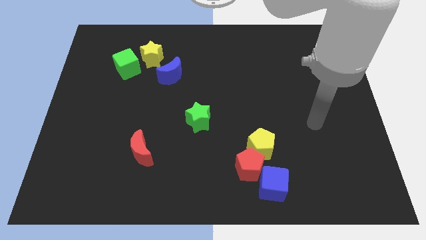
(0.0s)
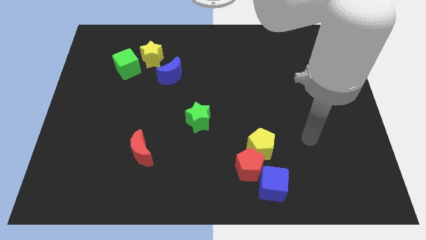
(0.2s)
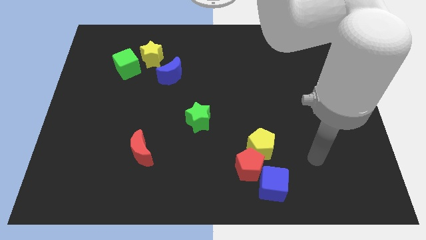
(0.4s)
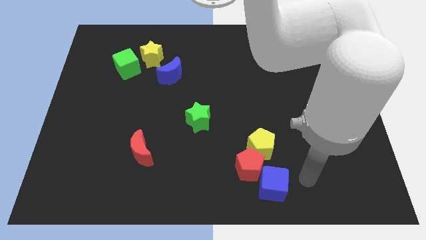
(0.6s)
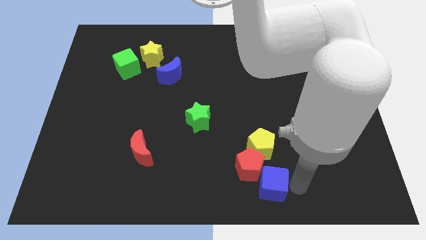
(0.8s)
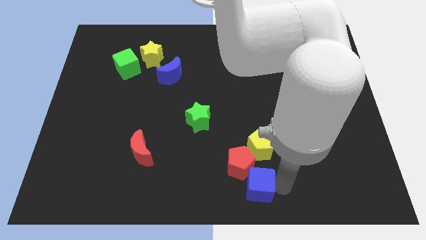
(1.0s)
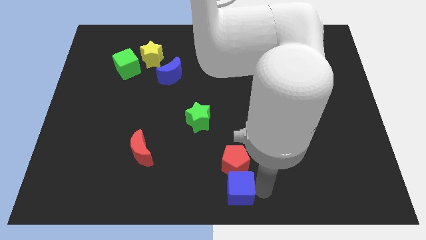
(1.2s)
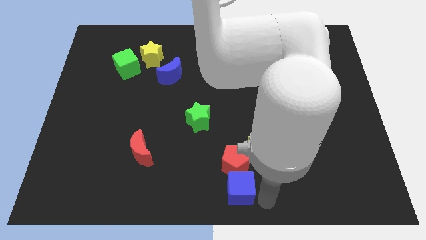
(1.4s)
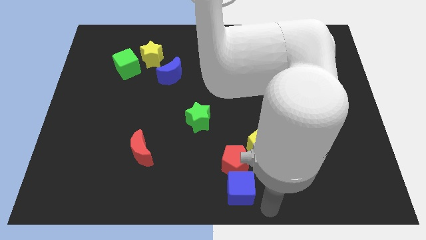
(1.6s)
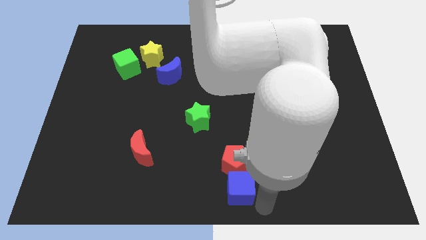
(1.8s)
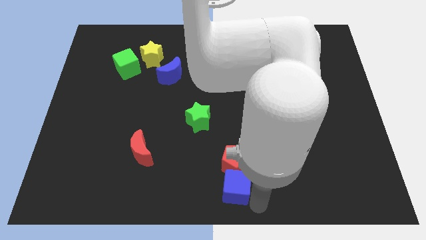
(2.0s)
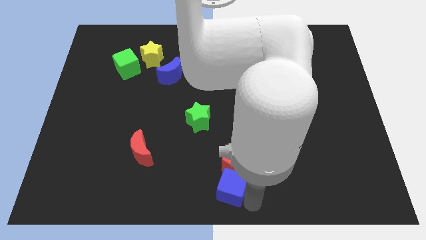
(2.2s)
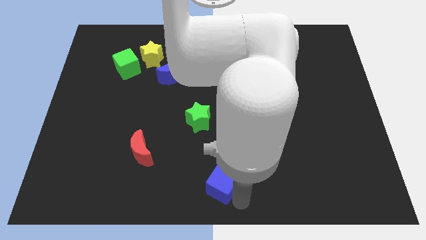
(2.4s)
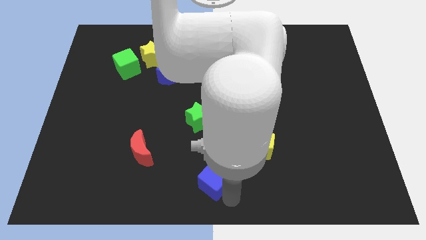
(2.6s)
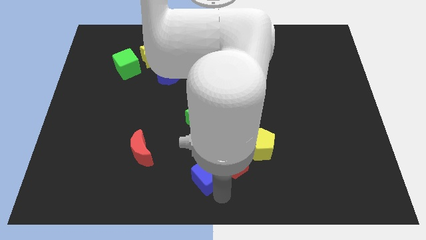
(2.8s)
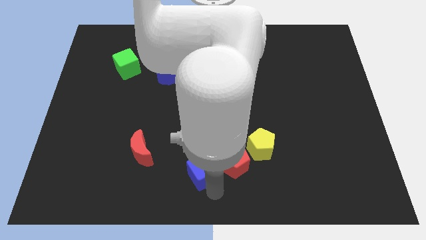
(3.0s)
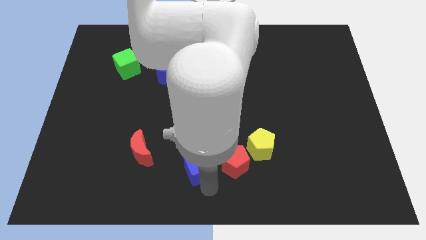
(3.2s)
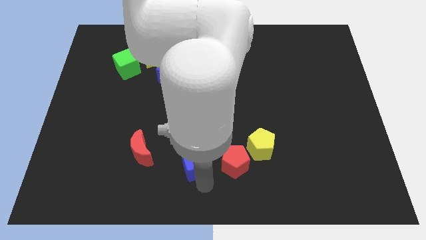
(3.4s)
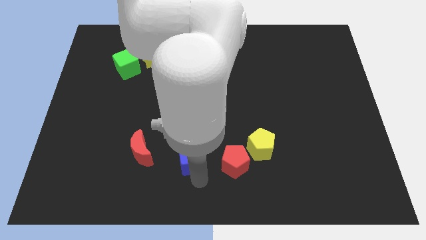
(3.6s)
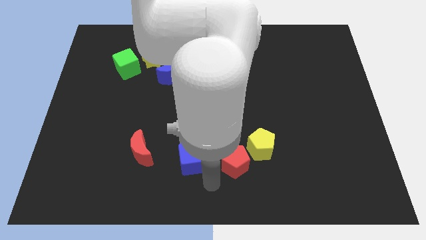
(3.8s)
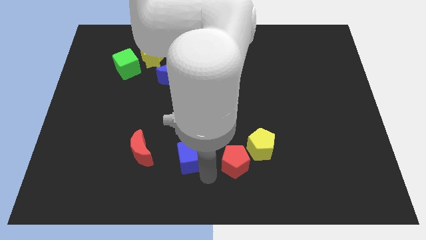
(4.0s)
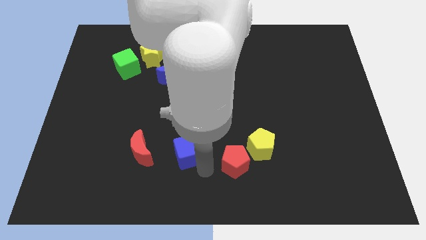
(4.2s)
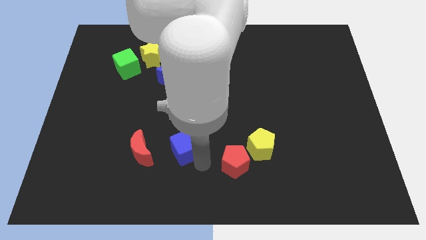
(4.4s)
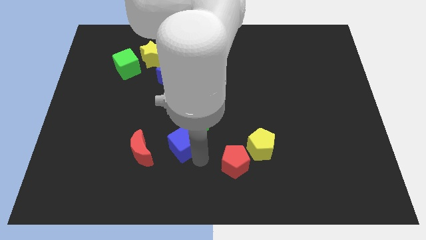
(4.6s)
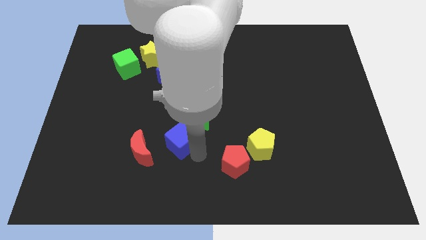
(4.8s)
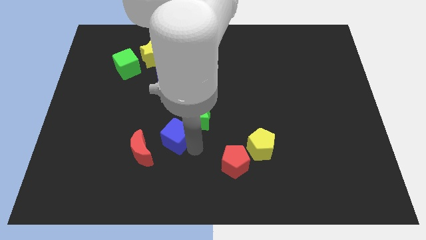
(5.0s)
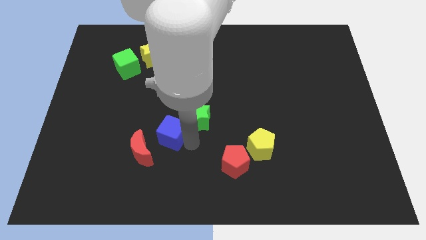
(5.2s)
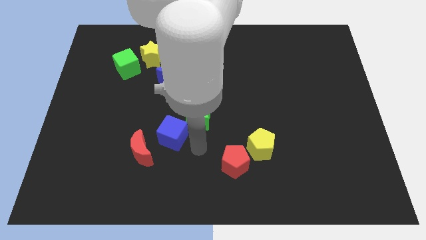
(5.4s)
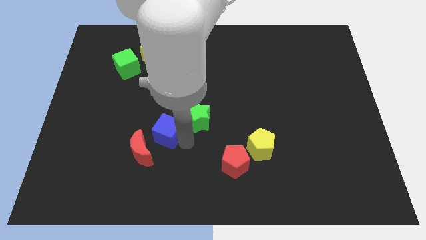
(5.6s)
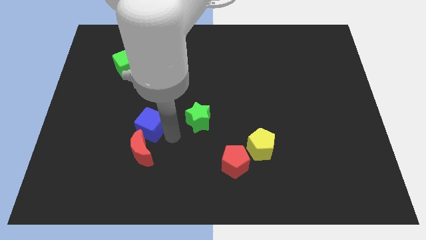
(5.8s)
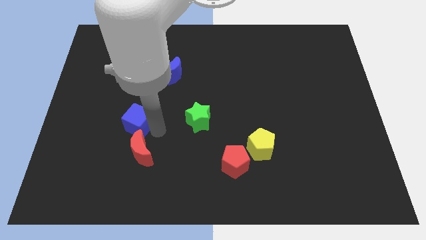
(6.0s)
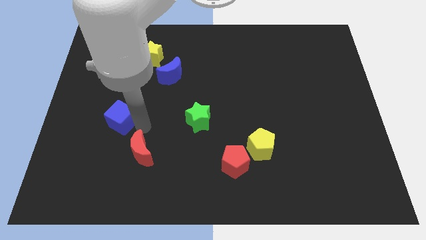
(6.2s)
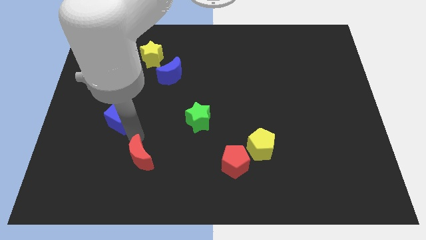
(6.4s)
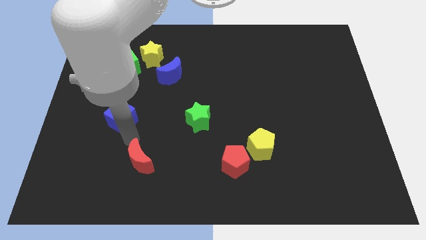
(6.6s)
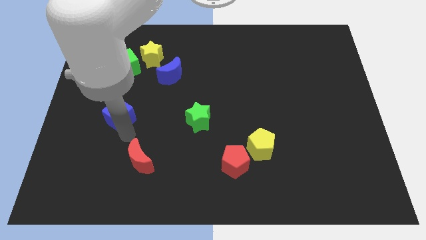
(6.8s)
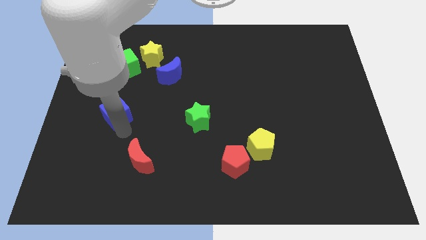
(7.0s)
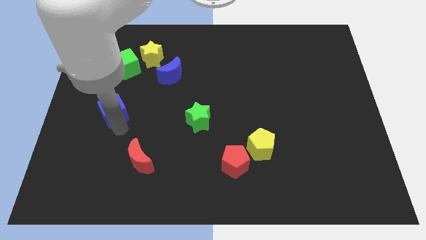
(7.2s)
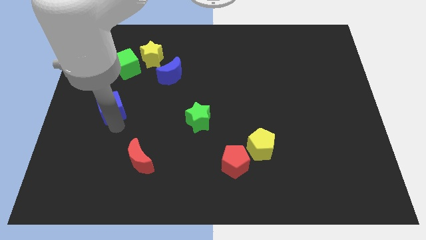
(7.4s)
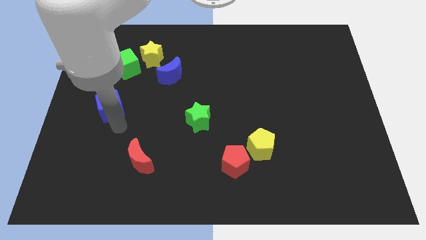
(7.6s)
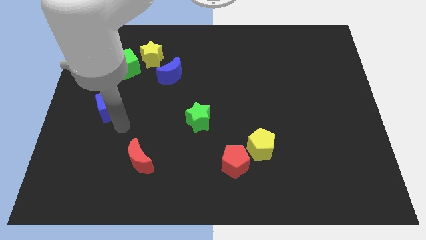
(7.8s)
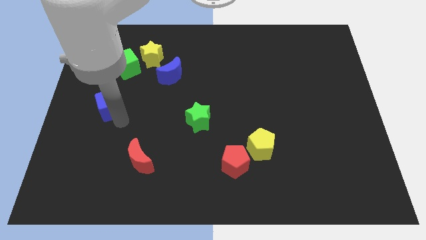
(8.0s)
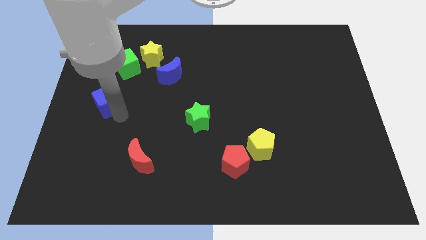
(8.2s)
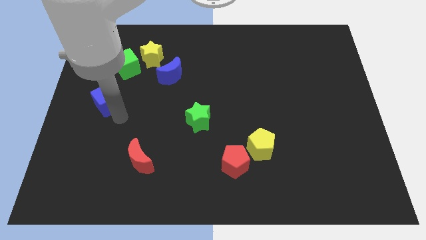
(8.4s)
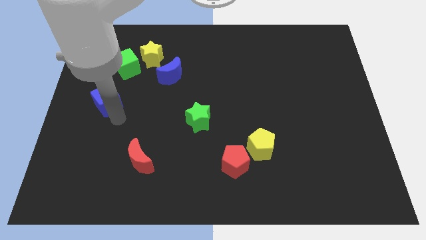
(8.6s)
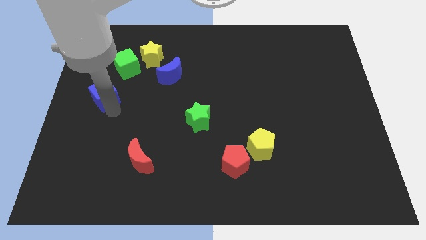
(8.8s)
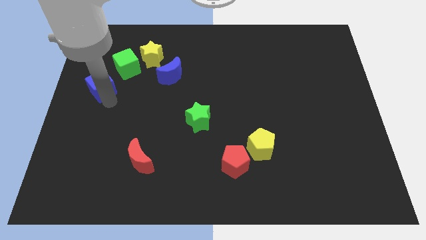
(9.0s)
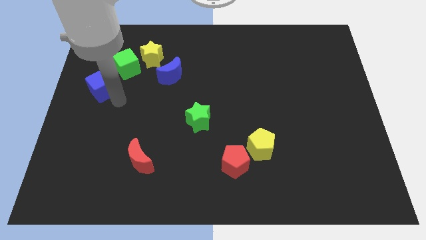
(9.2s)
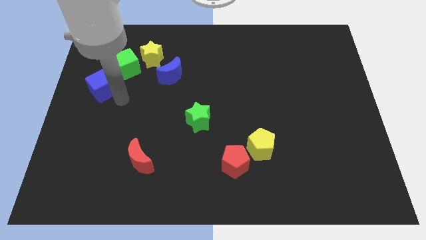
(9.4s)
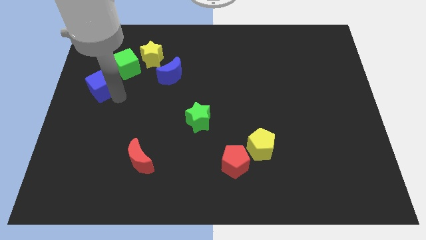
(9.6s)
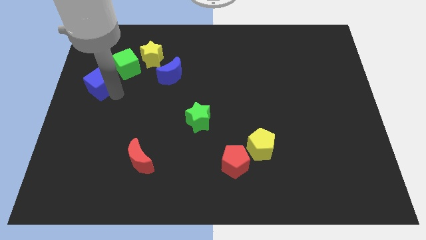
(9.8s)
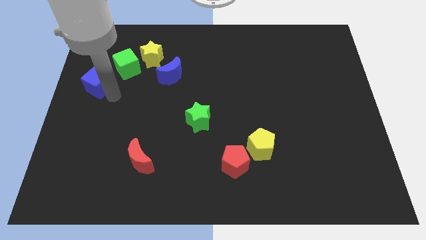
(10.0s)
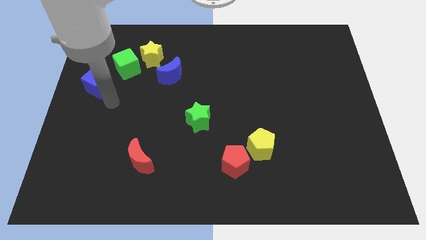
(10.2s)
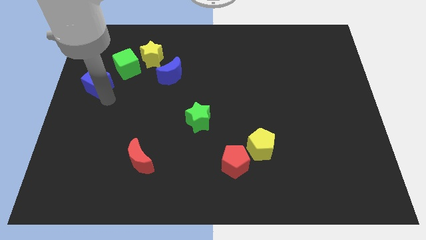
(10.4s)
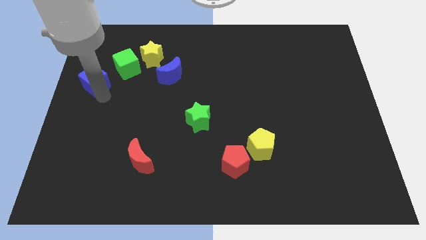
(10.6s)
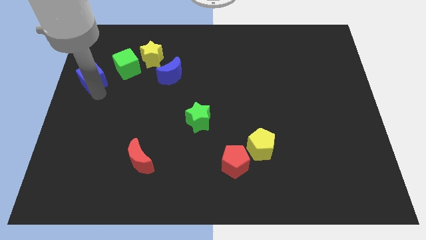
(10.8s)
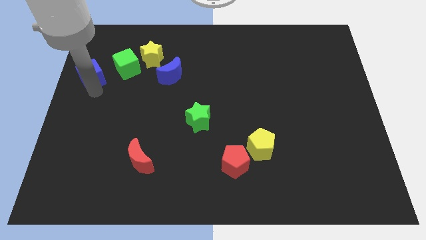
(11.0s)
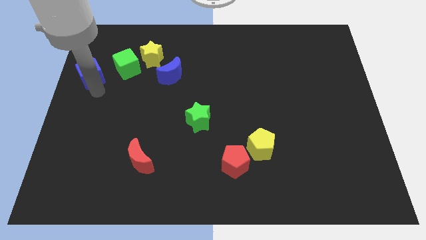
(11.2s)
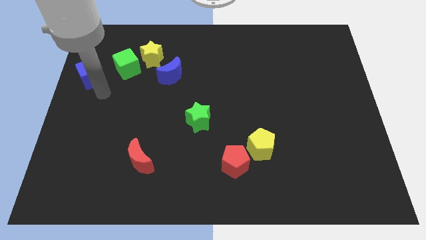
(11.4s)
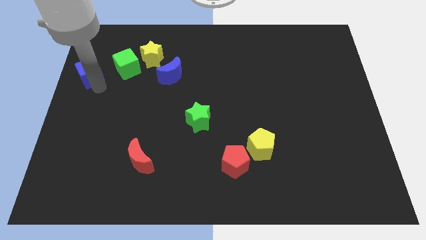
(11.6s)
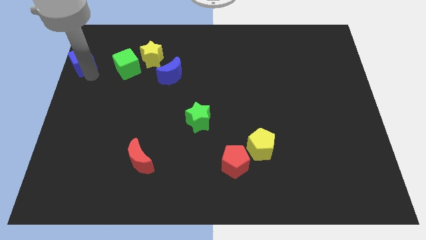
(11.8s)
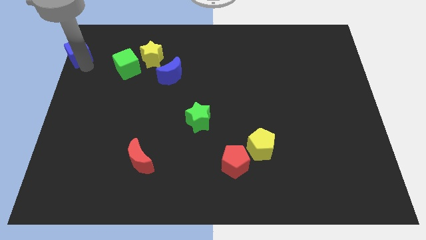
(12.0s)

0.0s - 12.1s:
move the blue cube to the top left corner

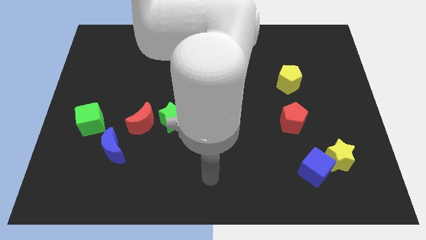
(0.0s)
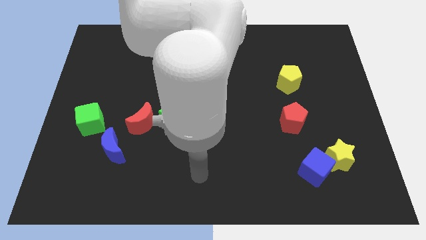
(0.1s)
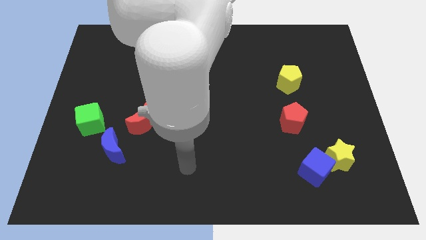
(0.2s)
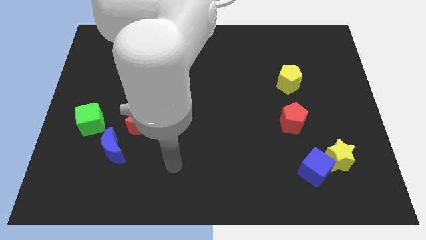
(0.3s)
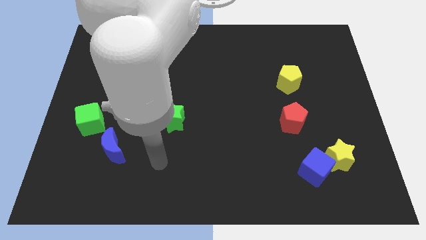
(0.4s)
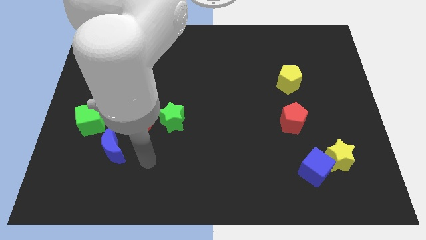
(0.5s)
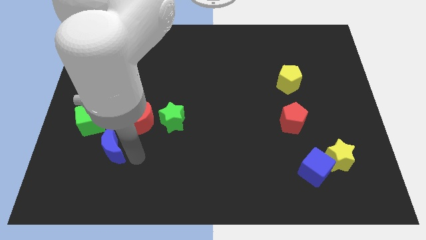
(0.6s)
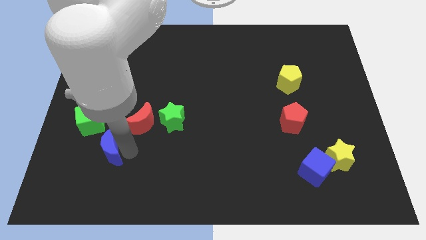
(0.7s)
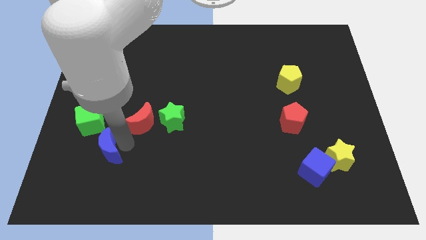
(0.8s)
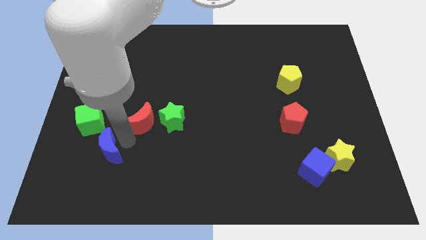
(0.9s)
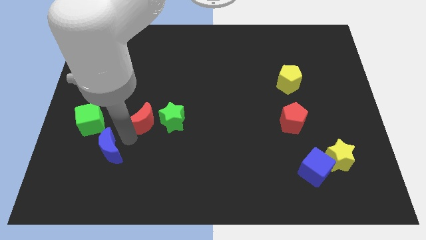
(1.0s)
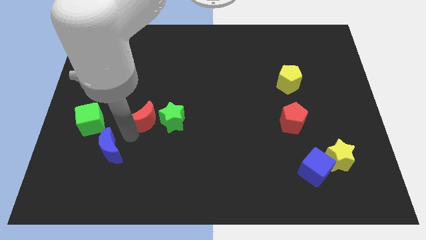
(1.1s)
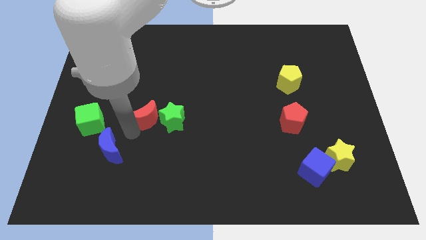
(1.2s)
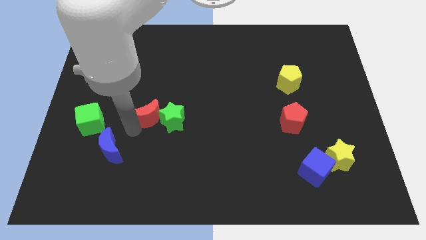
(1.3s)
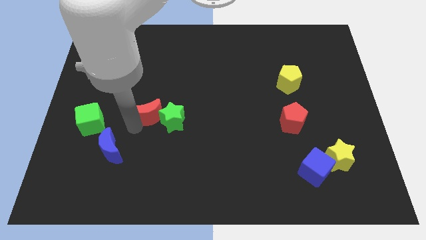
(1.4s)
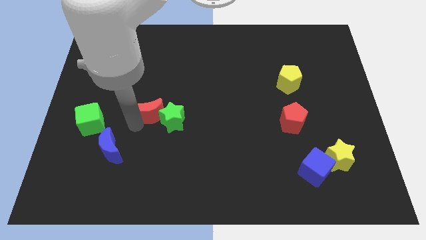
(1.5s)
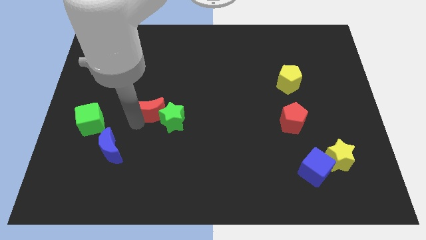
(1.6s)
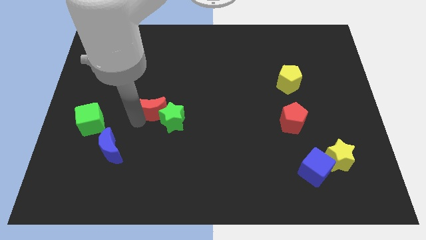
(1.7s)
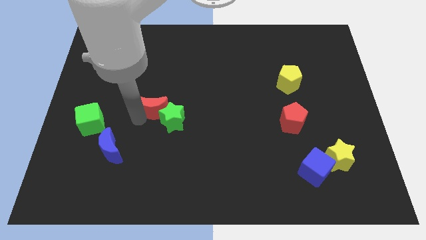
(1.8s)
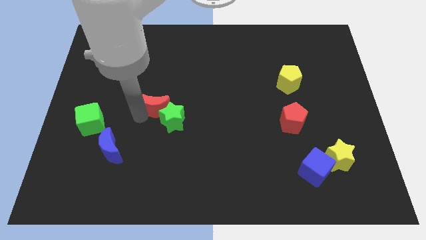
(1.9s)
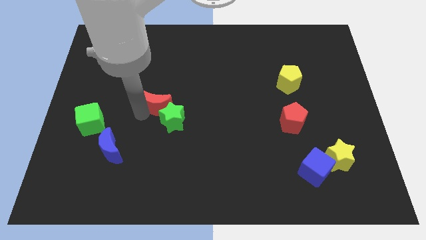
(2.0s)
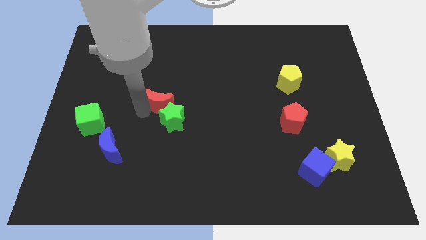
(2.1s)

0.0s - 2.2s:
put the red moon to the middle
